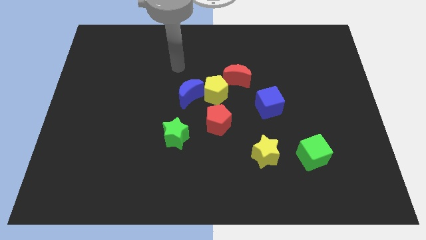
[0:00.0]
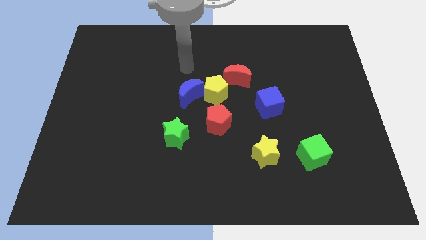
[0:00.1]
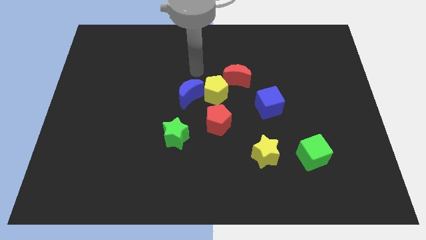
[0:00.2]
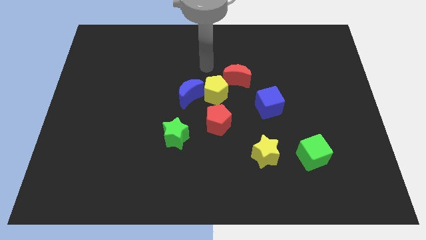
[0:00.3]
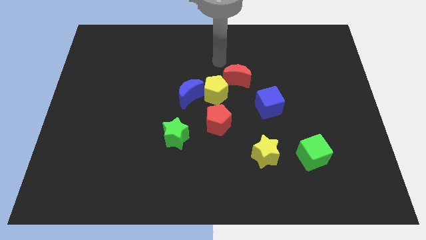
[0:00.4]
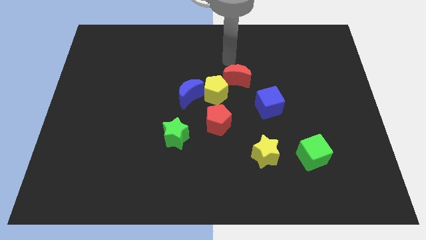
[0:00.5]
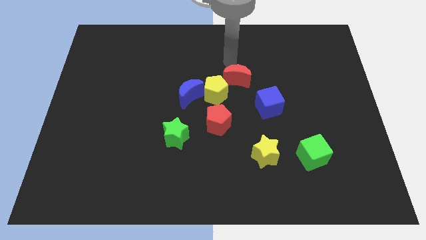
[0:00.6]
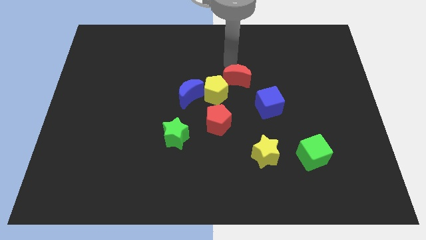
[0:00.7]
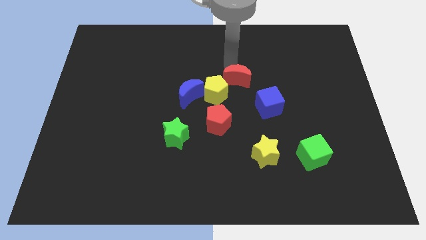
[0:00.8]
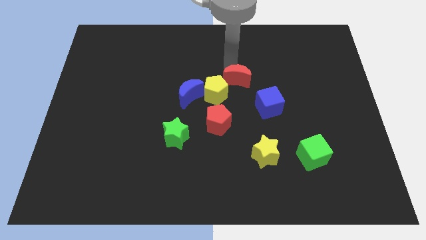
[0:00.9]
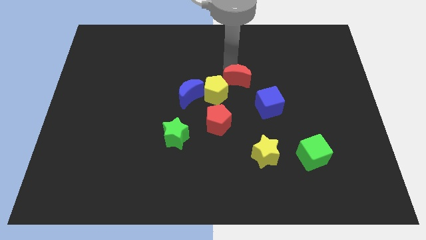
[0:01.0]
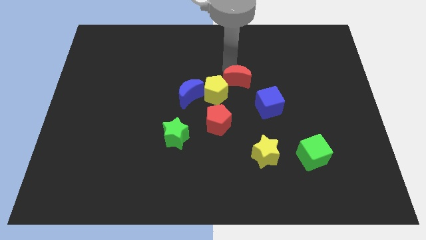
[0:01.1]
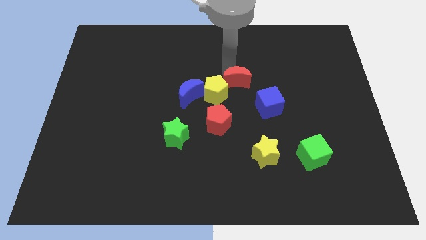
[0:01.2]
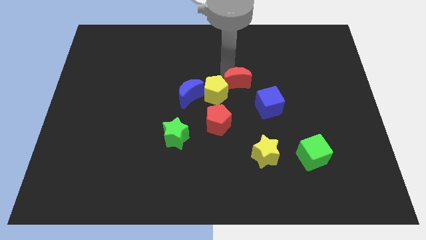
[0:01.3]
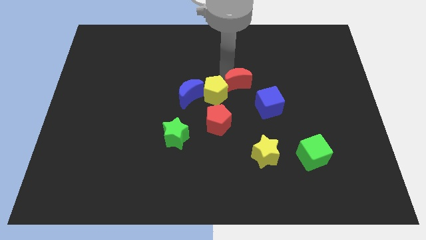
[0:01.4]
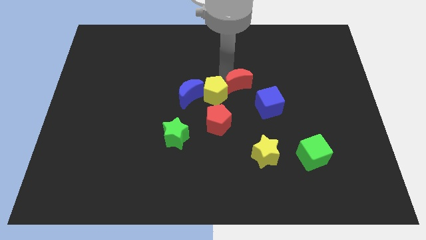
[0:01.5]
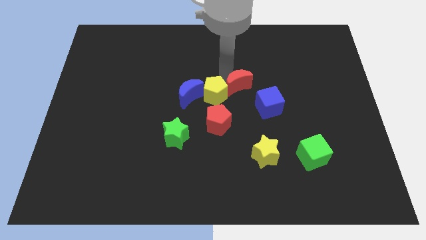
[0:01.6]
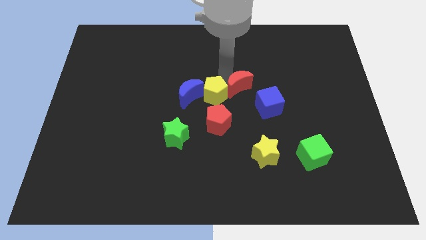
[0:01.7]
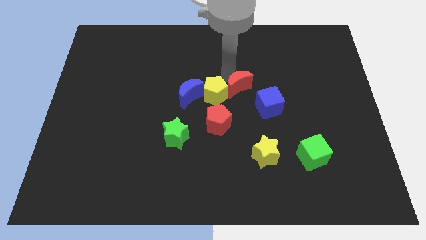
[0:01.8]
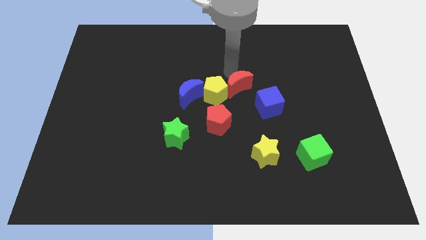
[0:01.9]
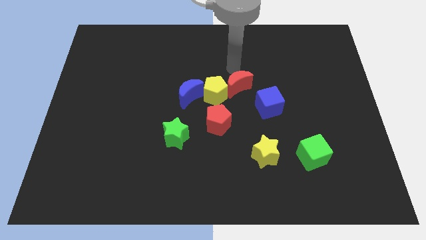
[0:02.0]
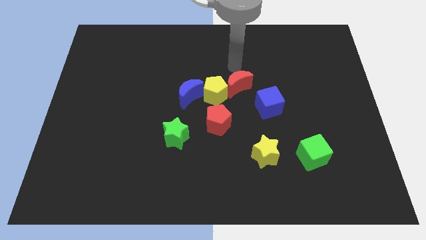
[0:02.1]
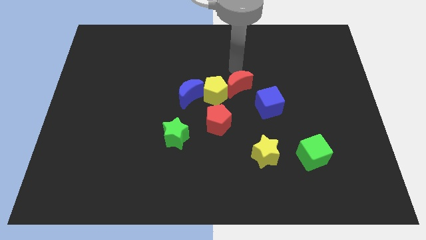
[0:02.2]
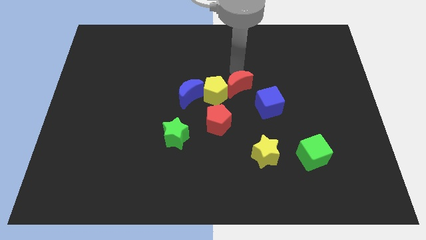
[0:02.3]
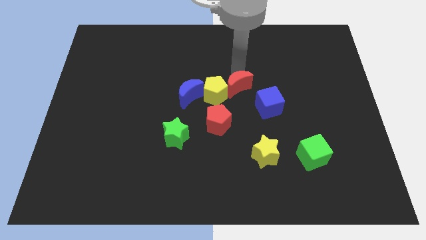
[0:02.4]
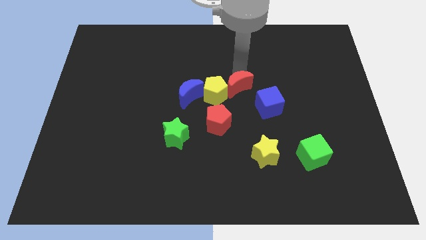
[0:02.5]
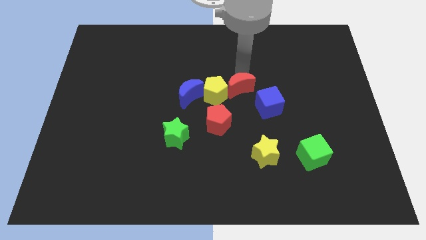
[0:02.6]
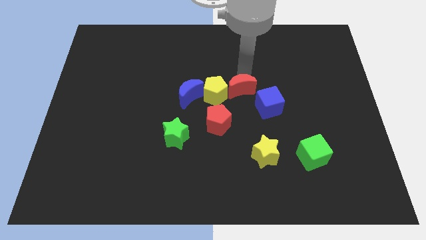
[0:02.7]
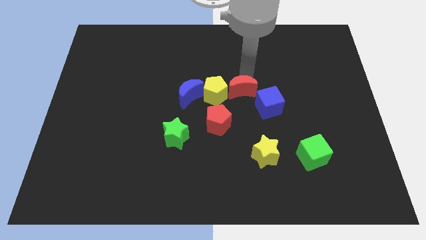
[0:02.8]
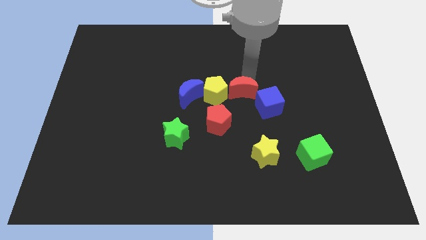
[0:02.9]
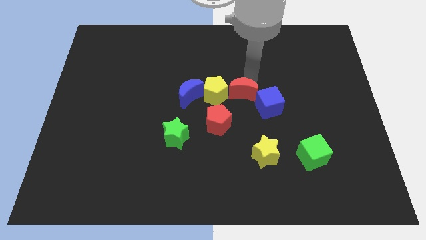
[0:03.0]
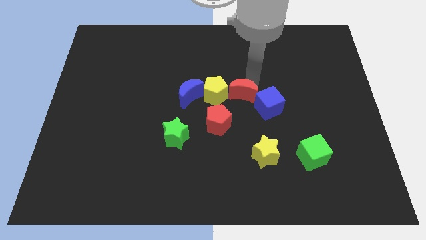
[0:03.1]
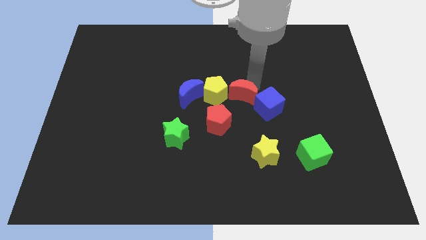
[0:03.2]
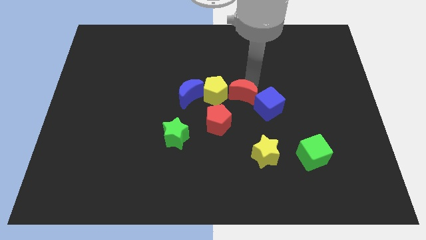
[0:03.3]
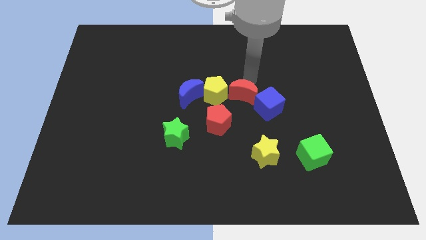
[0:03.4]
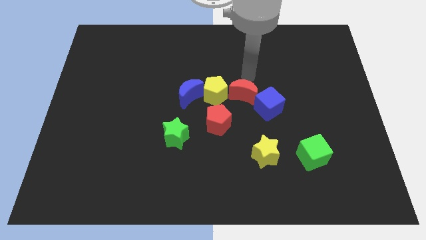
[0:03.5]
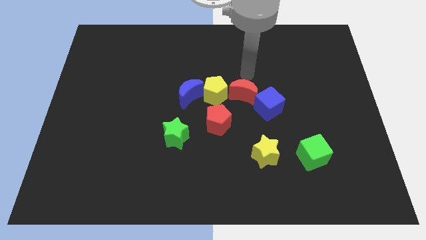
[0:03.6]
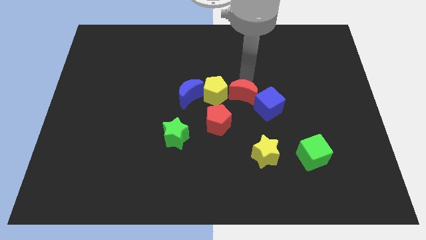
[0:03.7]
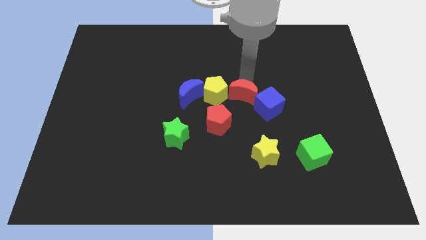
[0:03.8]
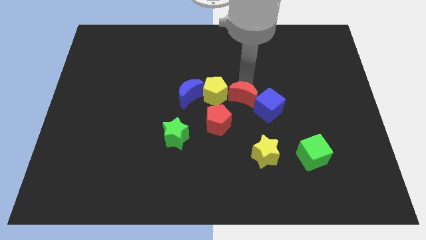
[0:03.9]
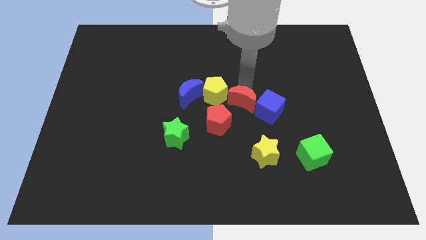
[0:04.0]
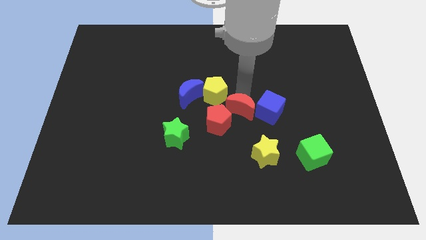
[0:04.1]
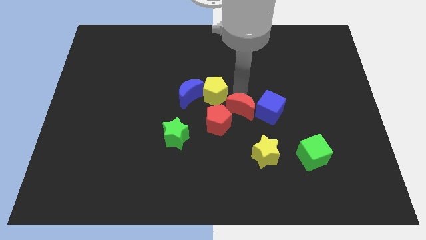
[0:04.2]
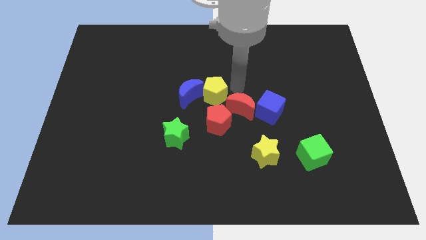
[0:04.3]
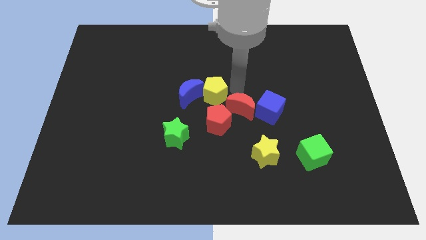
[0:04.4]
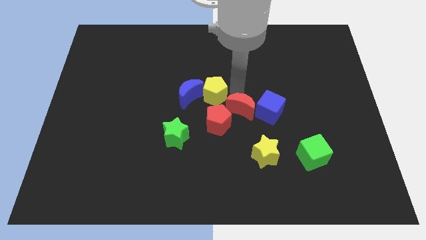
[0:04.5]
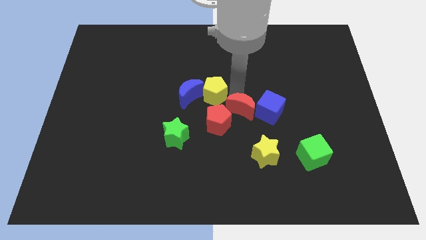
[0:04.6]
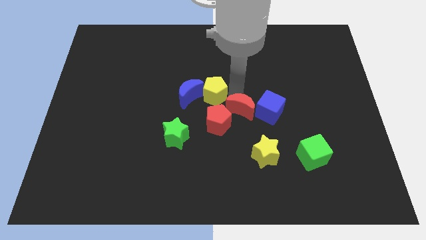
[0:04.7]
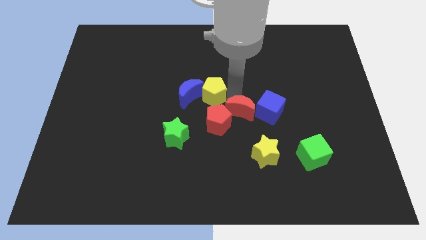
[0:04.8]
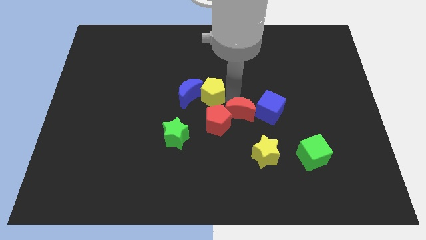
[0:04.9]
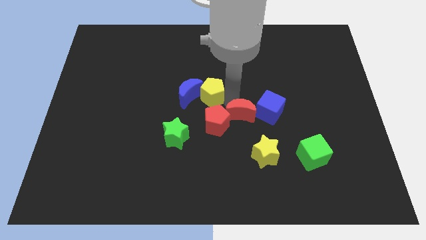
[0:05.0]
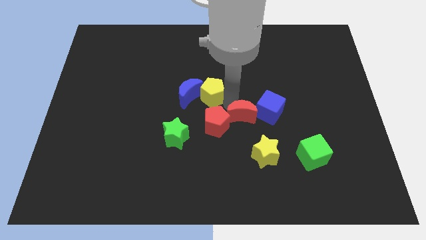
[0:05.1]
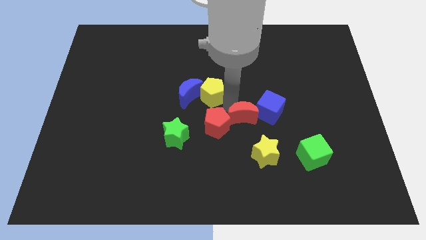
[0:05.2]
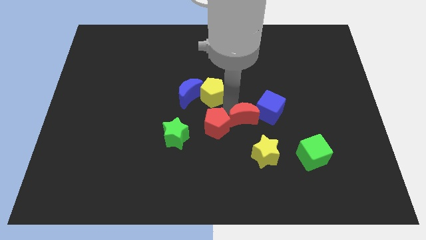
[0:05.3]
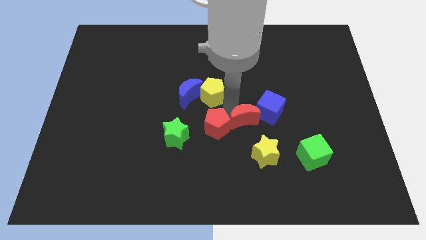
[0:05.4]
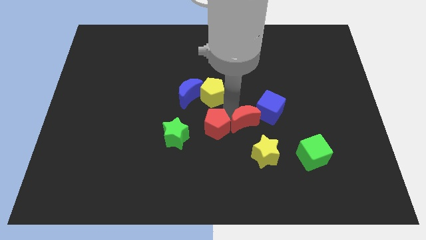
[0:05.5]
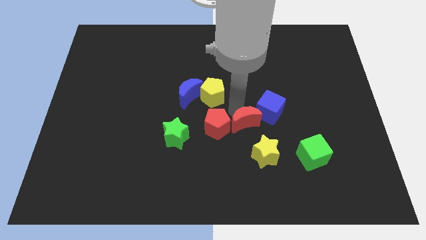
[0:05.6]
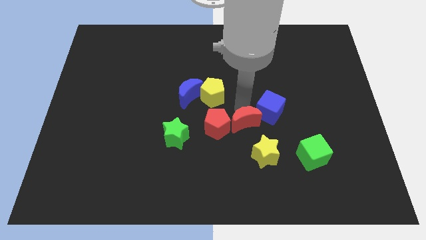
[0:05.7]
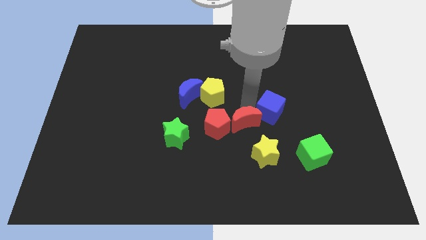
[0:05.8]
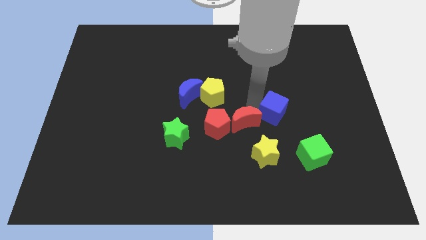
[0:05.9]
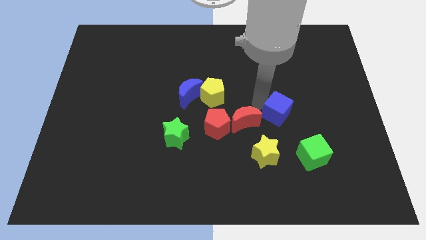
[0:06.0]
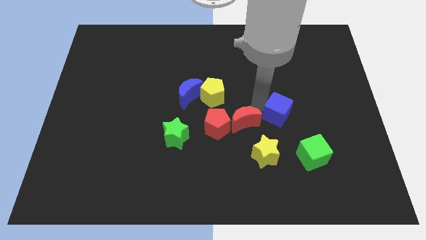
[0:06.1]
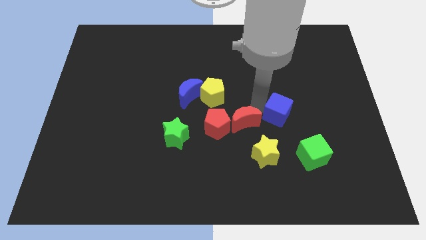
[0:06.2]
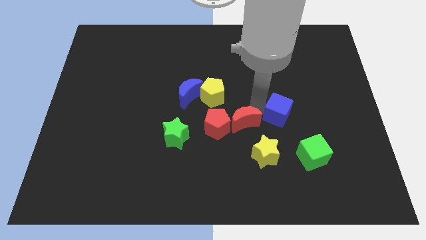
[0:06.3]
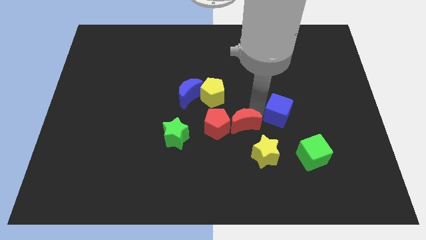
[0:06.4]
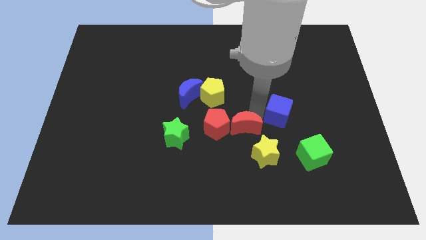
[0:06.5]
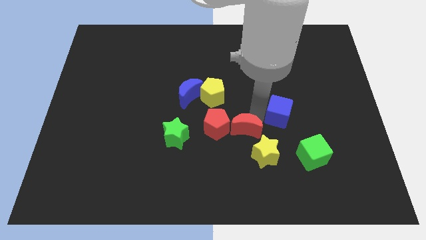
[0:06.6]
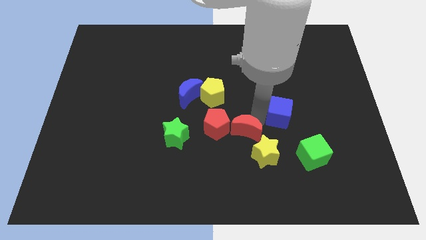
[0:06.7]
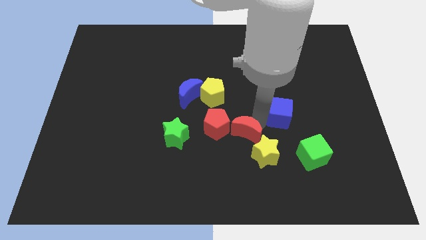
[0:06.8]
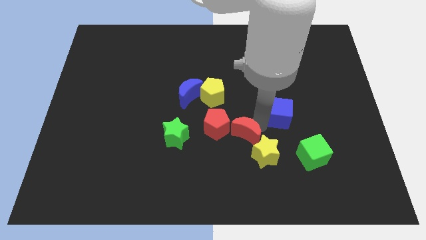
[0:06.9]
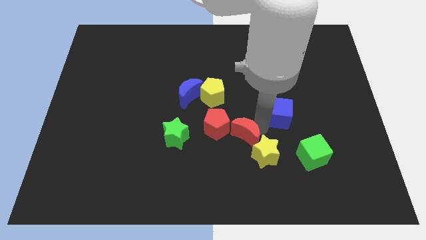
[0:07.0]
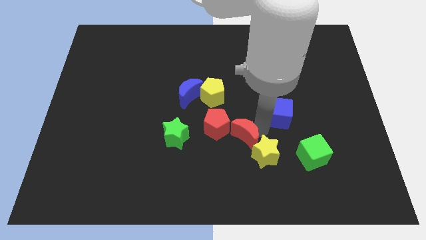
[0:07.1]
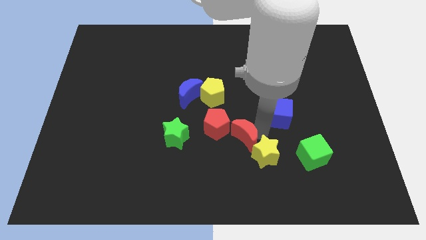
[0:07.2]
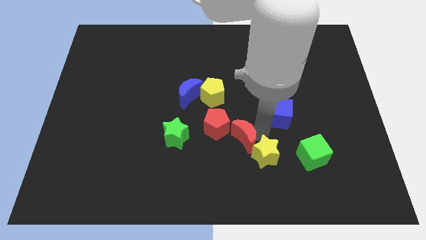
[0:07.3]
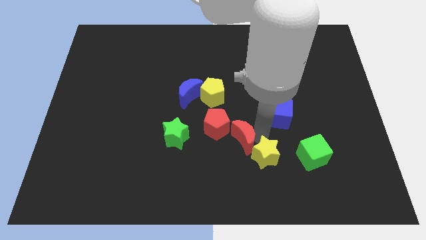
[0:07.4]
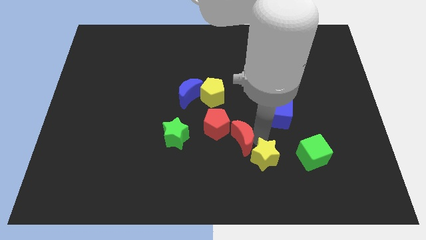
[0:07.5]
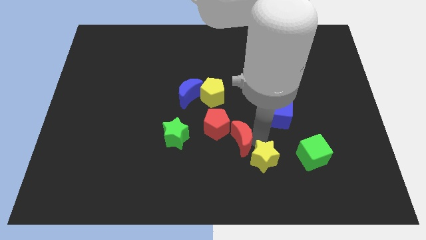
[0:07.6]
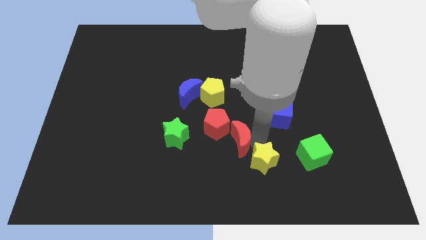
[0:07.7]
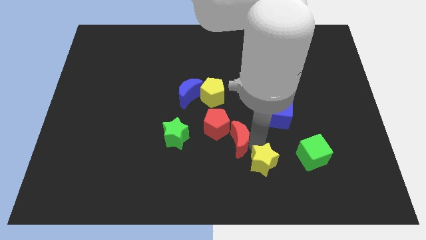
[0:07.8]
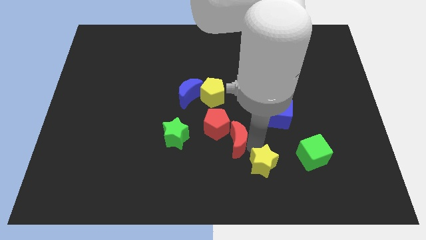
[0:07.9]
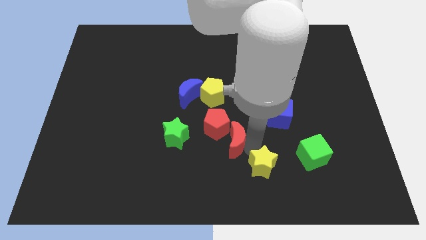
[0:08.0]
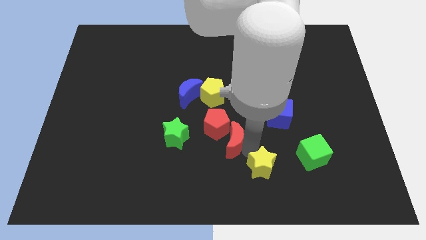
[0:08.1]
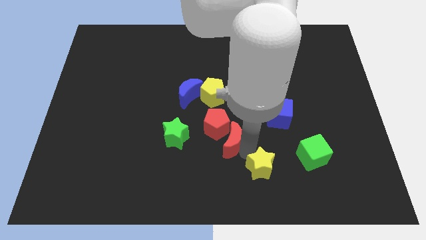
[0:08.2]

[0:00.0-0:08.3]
move the red moon to the bottom side of the yellow pentagon
